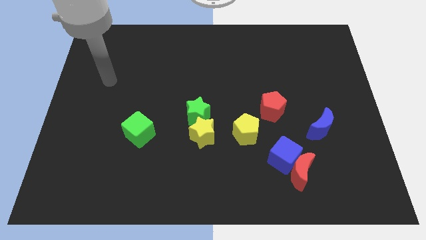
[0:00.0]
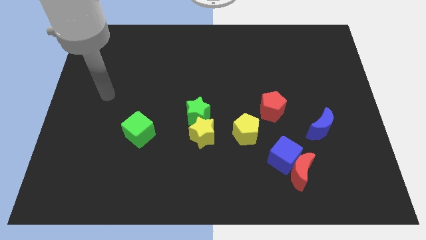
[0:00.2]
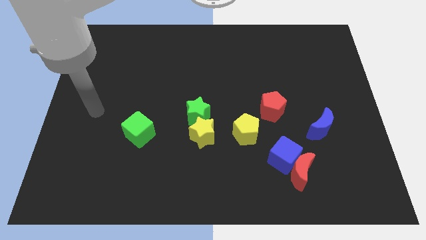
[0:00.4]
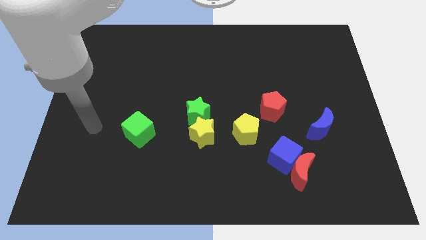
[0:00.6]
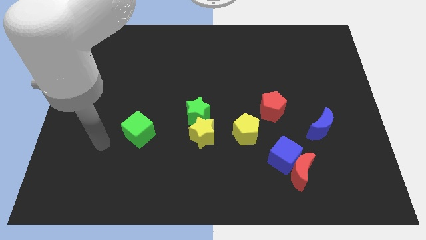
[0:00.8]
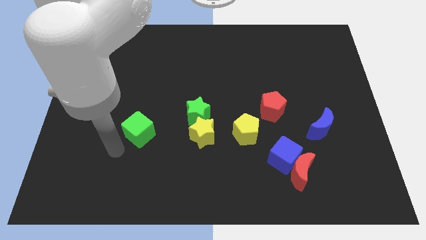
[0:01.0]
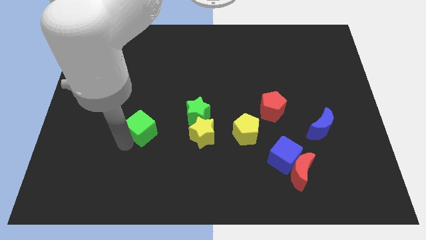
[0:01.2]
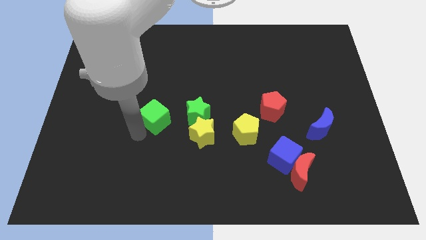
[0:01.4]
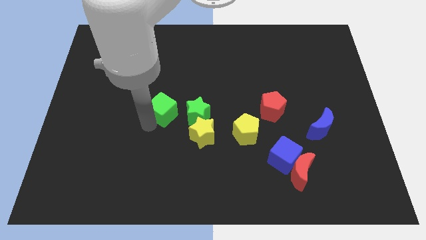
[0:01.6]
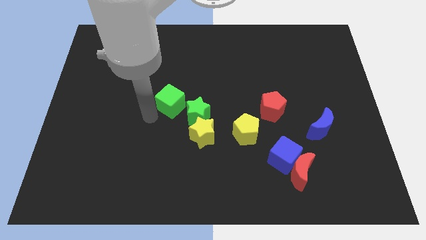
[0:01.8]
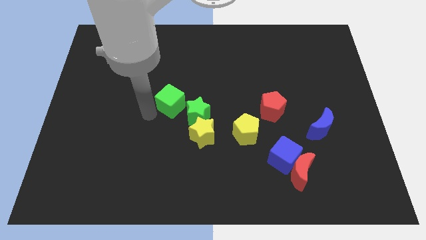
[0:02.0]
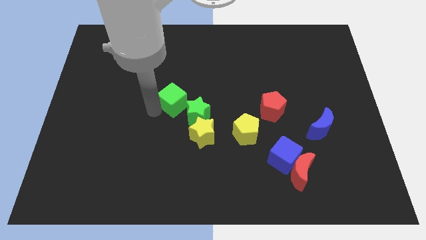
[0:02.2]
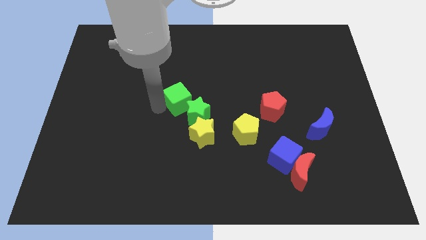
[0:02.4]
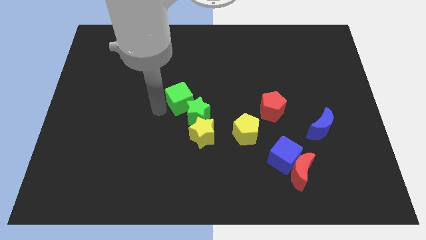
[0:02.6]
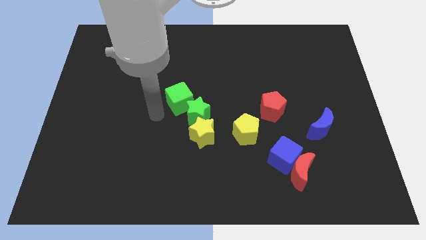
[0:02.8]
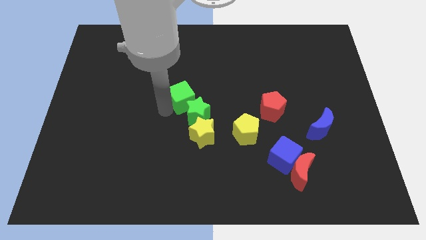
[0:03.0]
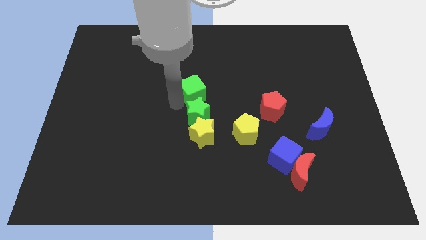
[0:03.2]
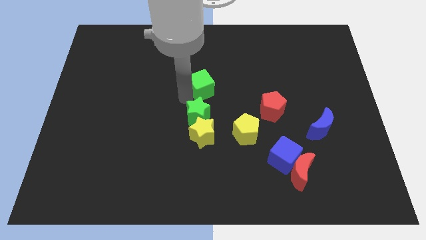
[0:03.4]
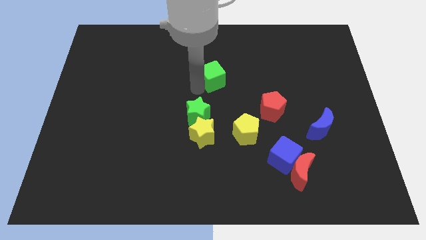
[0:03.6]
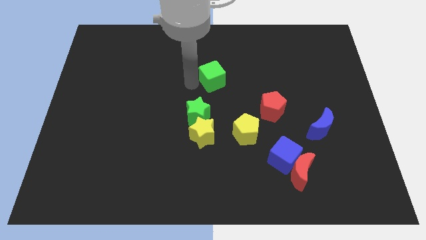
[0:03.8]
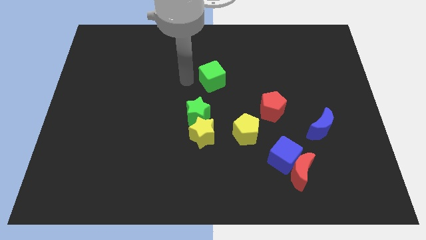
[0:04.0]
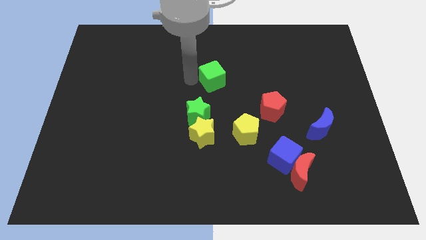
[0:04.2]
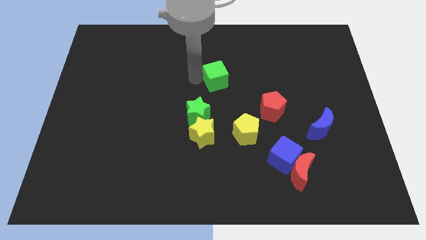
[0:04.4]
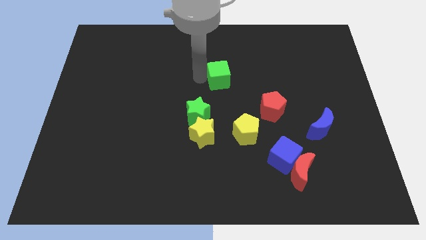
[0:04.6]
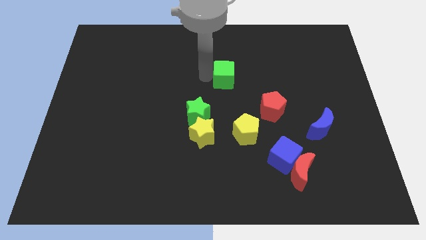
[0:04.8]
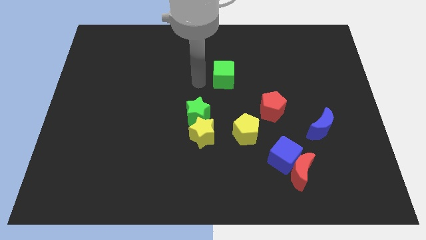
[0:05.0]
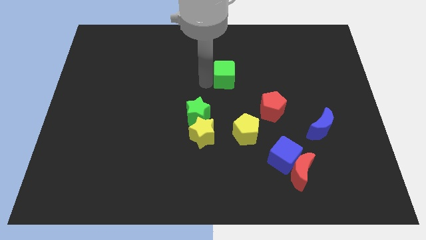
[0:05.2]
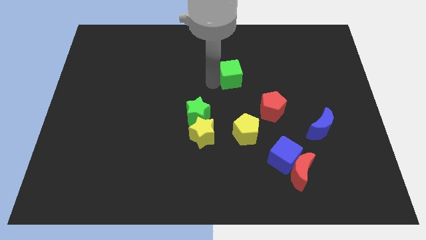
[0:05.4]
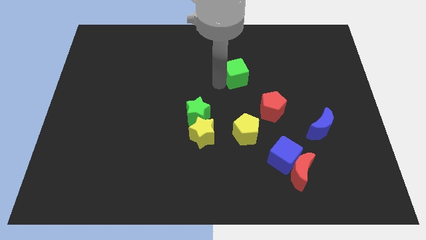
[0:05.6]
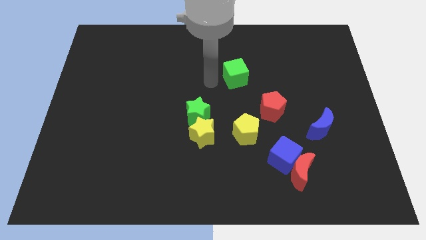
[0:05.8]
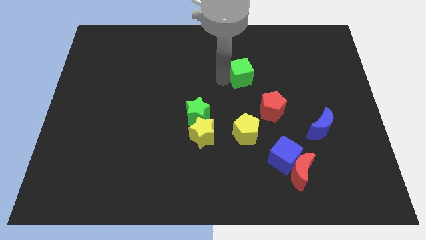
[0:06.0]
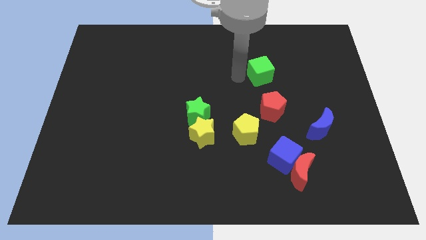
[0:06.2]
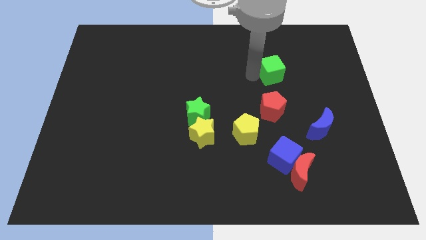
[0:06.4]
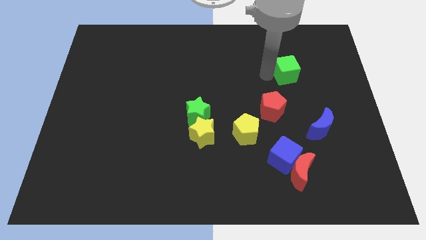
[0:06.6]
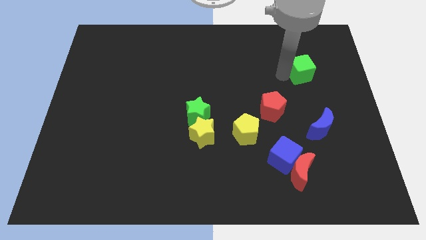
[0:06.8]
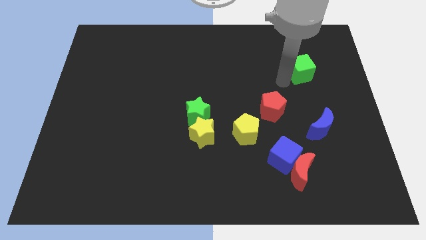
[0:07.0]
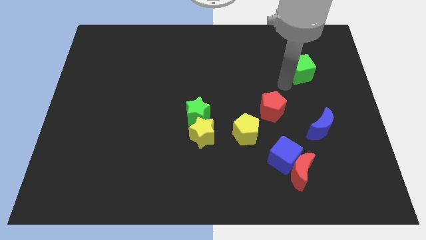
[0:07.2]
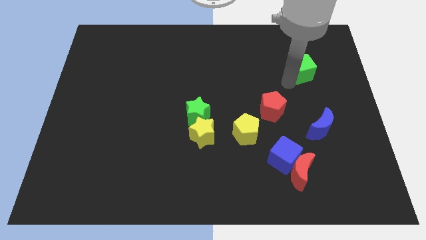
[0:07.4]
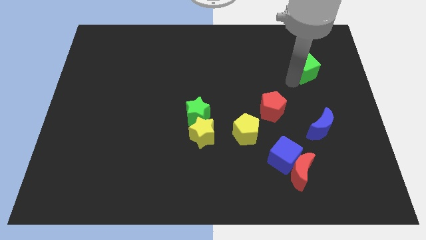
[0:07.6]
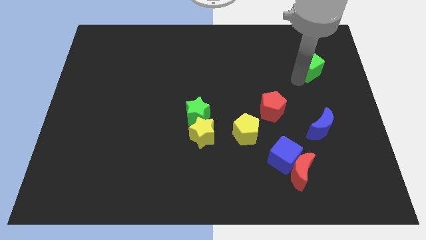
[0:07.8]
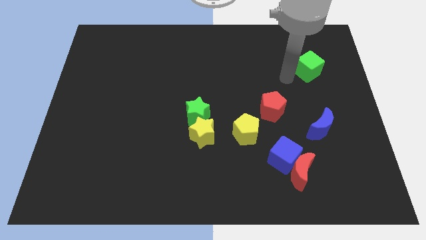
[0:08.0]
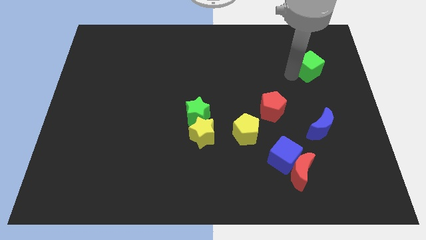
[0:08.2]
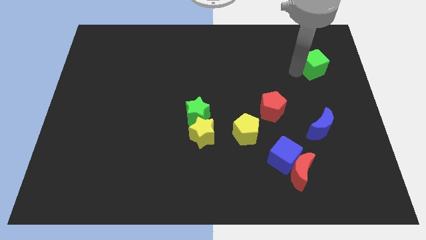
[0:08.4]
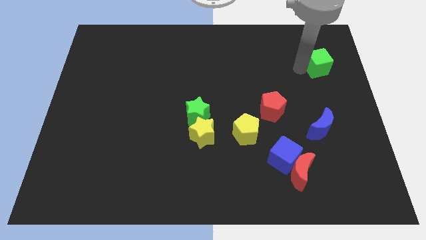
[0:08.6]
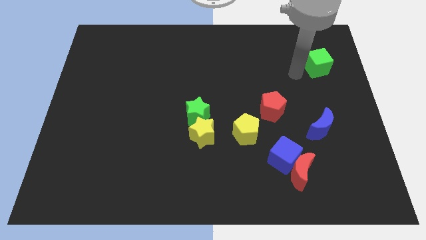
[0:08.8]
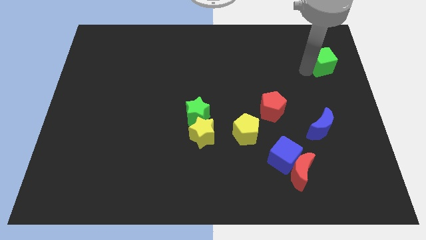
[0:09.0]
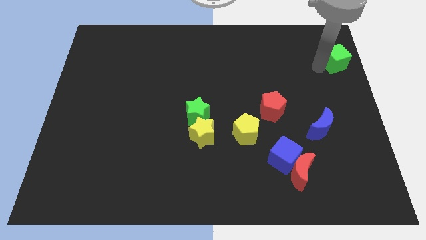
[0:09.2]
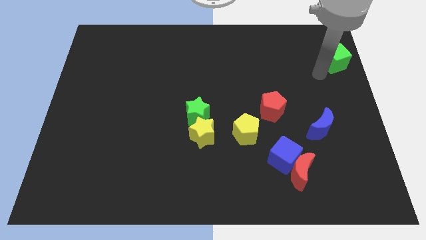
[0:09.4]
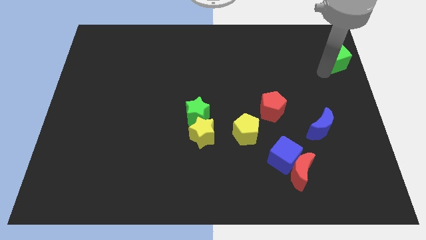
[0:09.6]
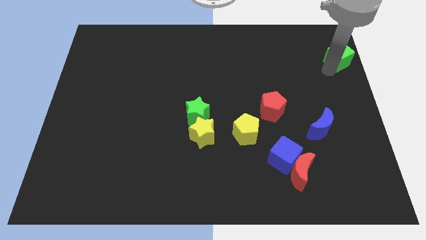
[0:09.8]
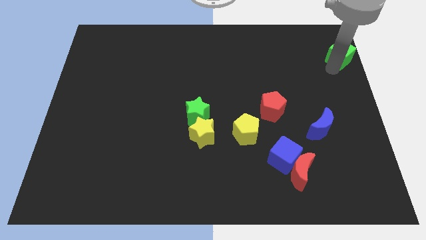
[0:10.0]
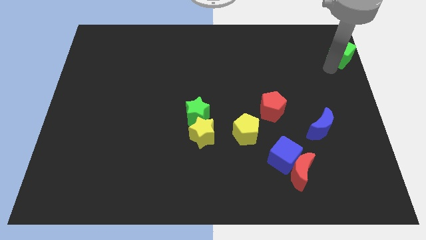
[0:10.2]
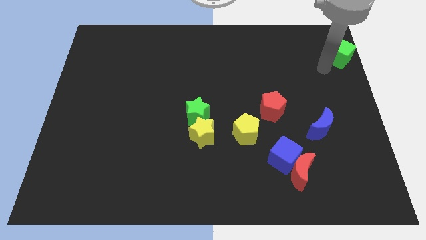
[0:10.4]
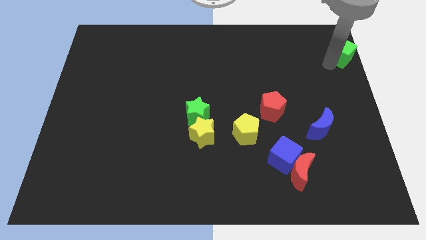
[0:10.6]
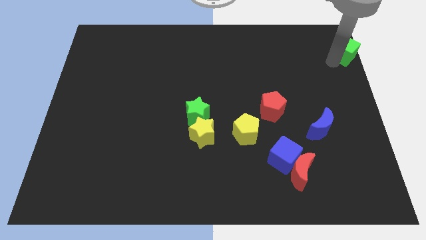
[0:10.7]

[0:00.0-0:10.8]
push the green cube to the upper right corner
